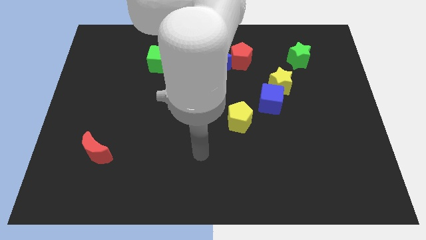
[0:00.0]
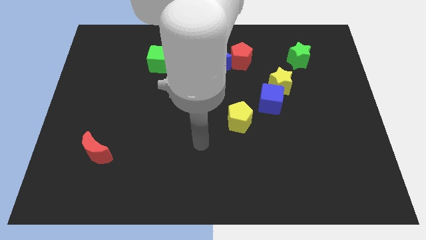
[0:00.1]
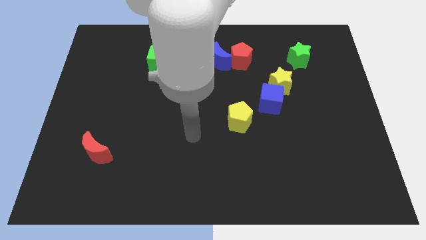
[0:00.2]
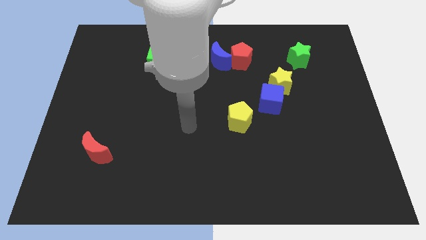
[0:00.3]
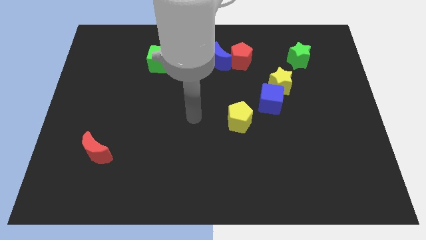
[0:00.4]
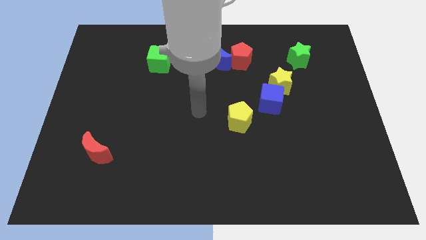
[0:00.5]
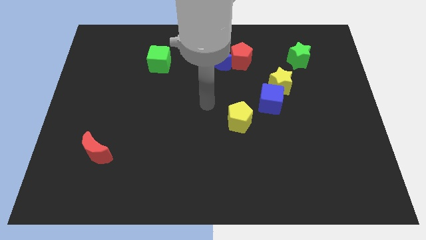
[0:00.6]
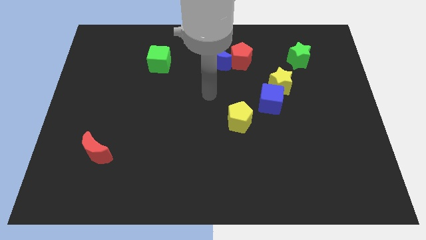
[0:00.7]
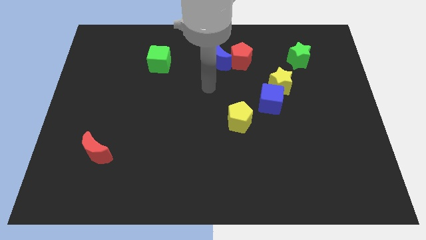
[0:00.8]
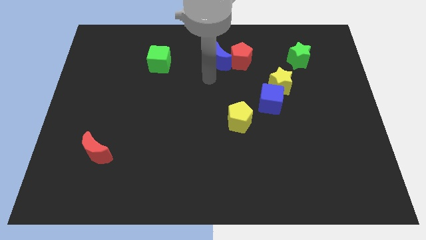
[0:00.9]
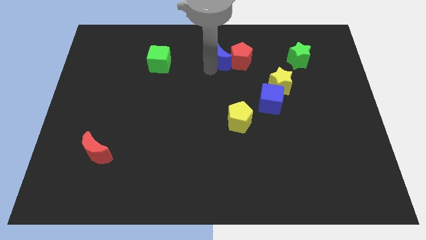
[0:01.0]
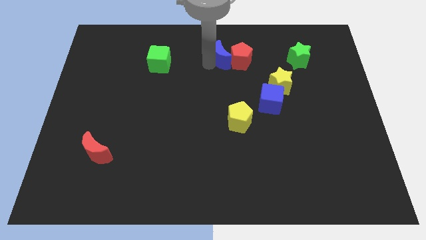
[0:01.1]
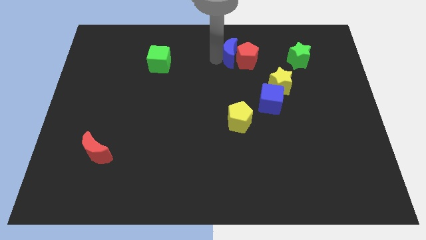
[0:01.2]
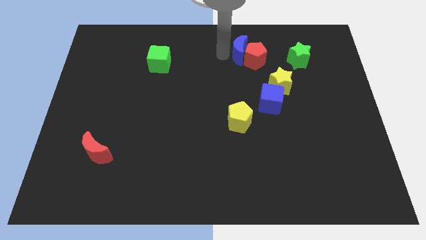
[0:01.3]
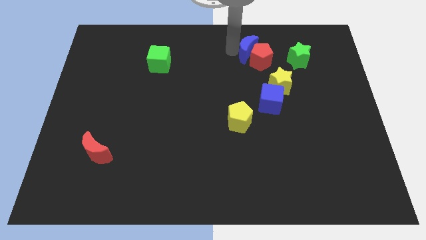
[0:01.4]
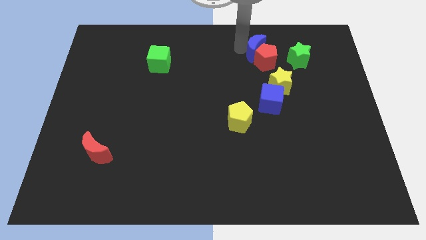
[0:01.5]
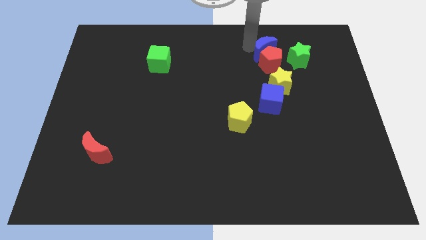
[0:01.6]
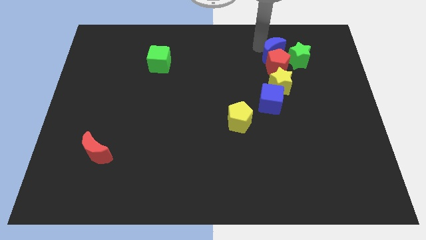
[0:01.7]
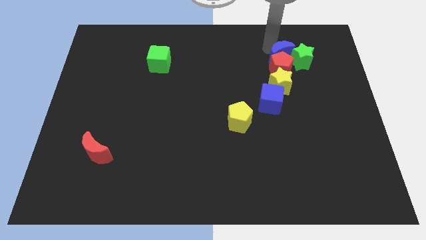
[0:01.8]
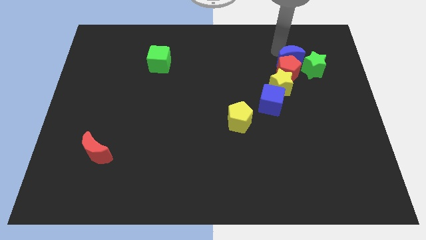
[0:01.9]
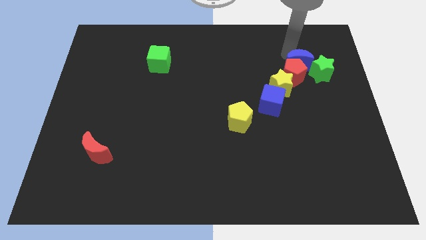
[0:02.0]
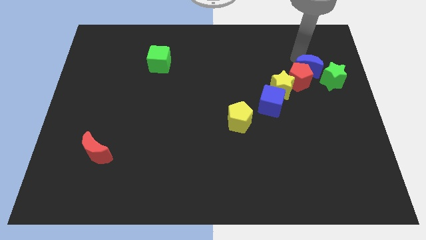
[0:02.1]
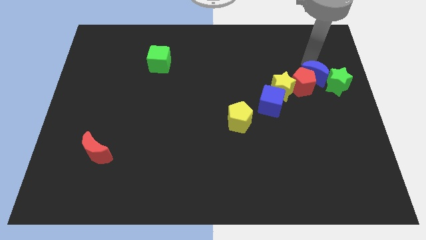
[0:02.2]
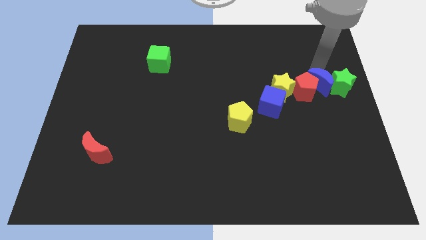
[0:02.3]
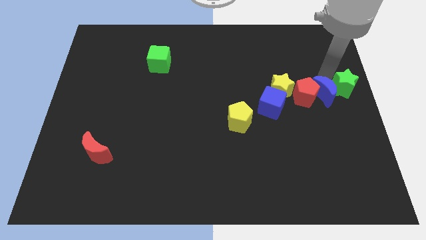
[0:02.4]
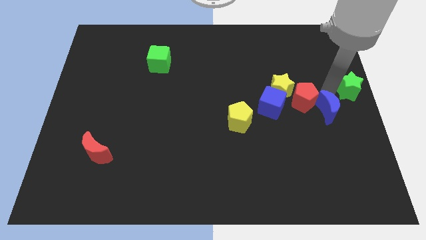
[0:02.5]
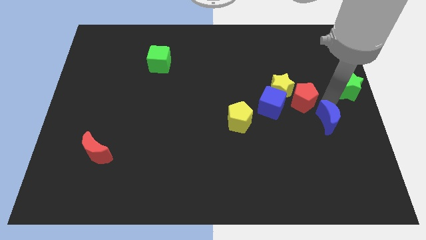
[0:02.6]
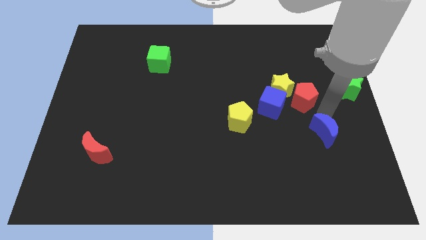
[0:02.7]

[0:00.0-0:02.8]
move the red pentagon away from the blue moon

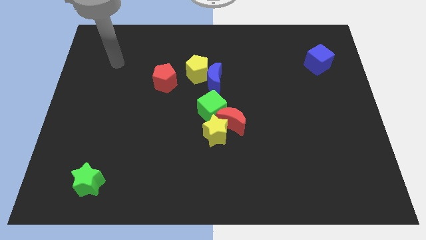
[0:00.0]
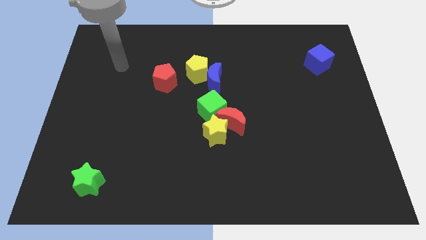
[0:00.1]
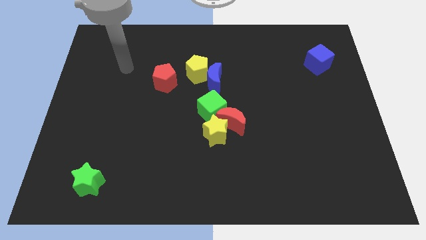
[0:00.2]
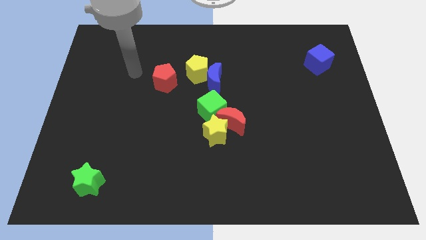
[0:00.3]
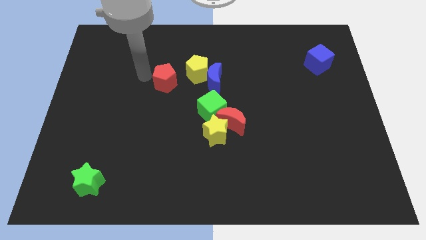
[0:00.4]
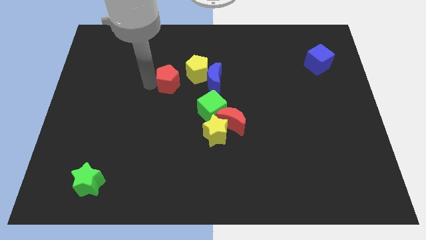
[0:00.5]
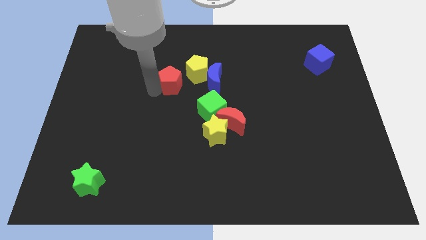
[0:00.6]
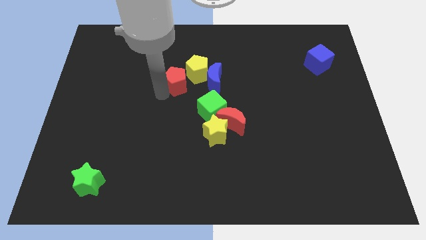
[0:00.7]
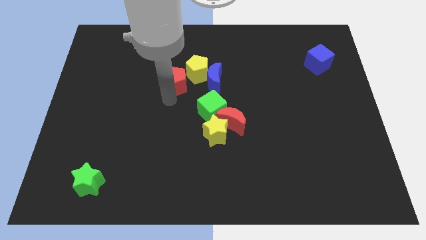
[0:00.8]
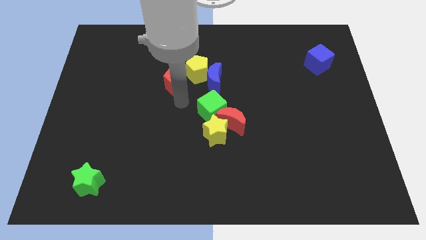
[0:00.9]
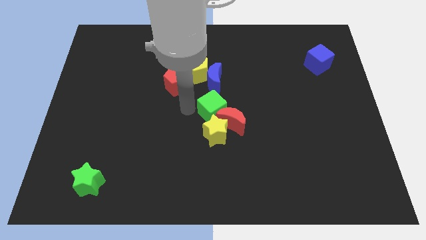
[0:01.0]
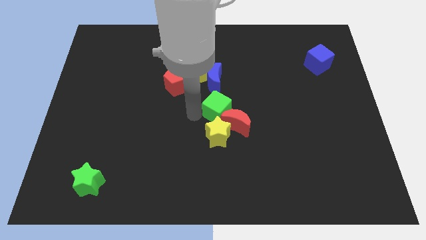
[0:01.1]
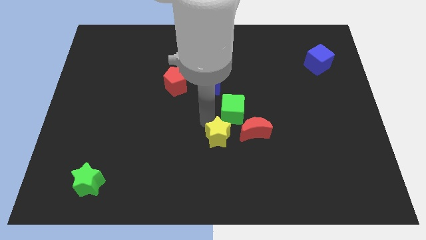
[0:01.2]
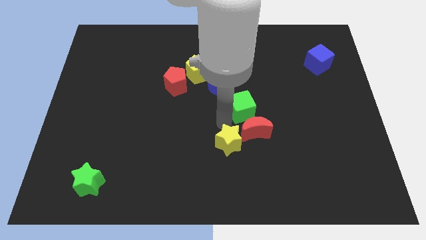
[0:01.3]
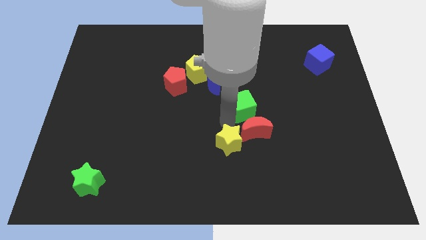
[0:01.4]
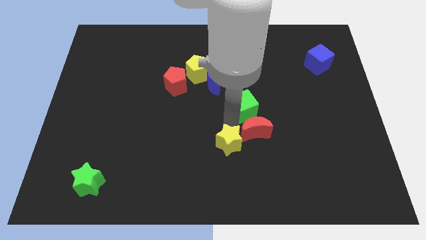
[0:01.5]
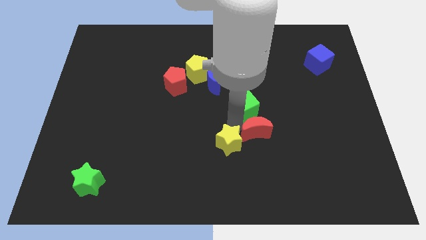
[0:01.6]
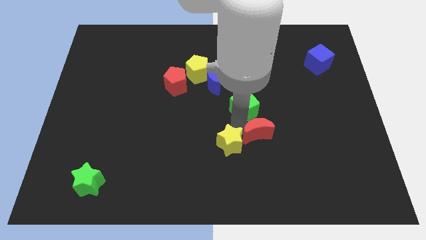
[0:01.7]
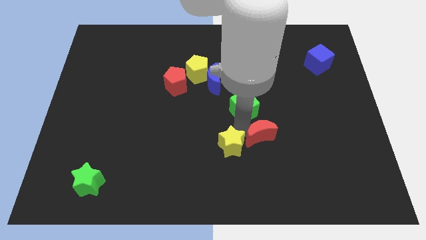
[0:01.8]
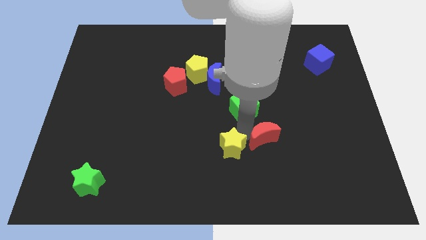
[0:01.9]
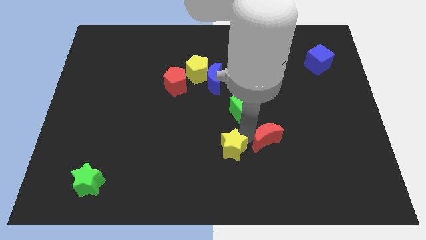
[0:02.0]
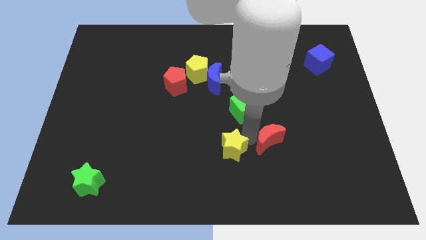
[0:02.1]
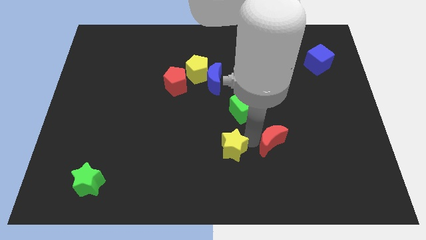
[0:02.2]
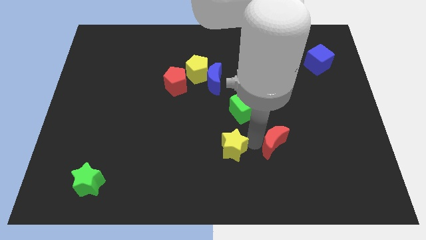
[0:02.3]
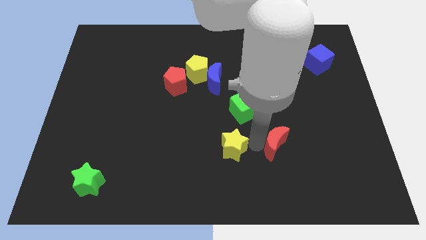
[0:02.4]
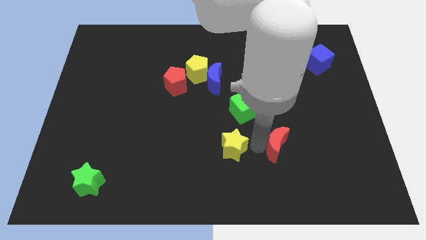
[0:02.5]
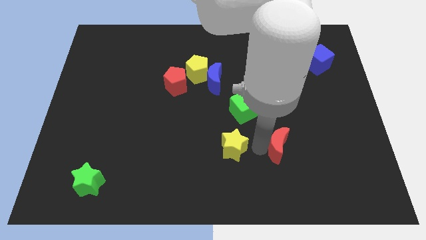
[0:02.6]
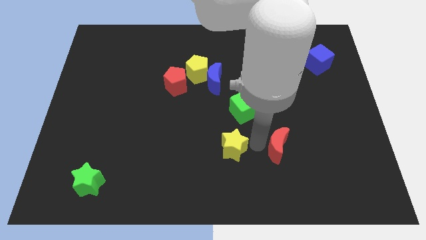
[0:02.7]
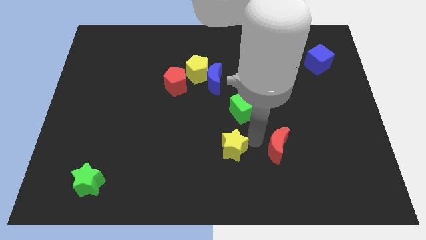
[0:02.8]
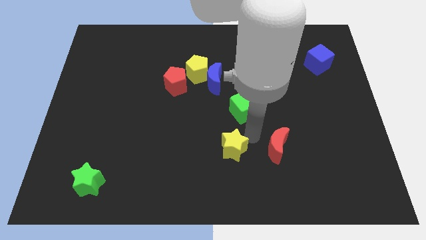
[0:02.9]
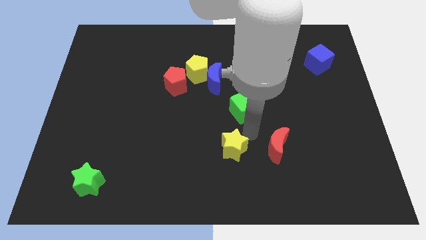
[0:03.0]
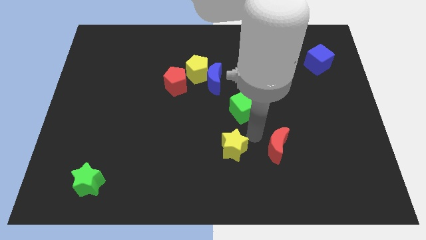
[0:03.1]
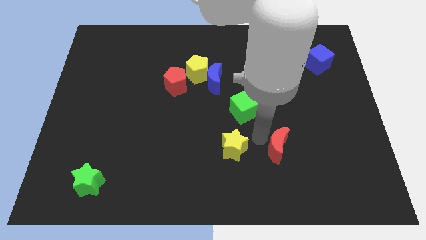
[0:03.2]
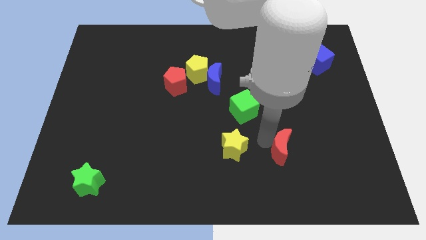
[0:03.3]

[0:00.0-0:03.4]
pull the red moon apart from the yellow star and green cube

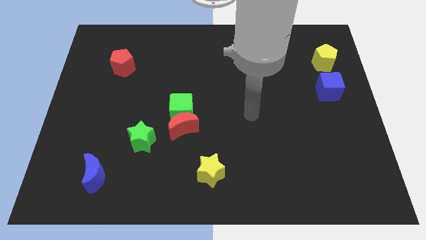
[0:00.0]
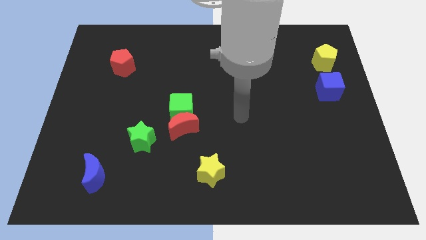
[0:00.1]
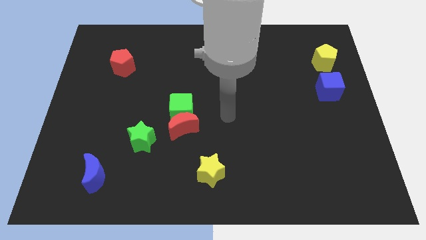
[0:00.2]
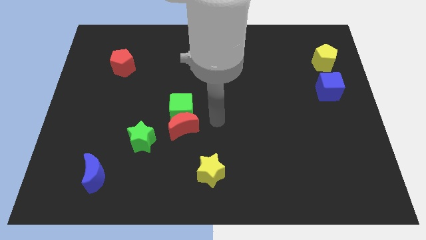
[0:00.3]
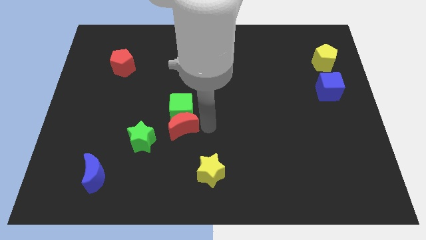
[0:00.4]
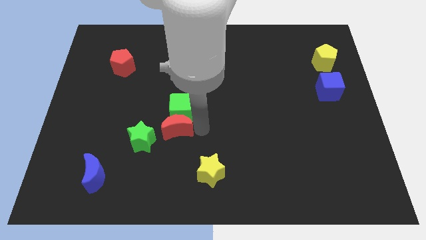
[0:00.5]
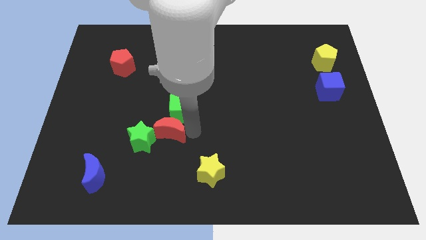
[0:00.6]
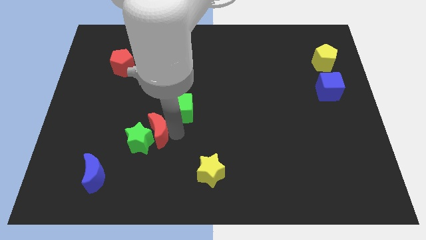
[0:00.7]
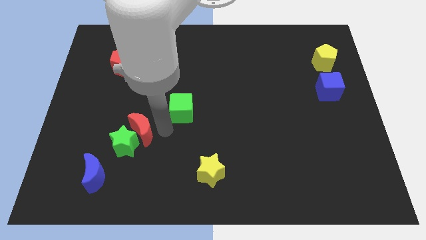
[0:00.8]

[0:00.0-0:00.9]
pull the green cube apart from the red moon

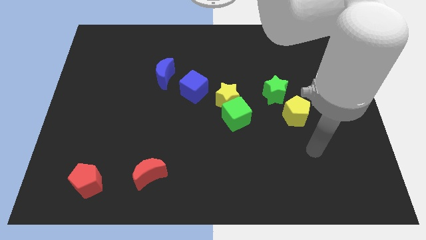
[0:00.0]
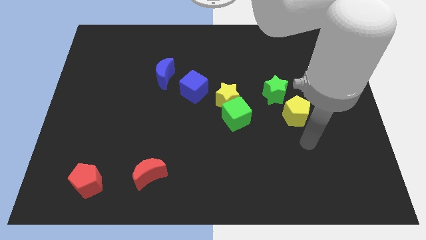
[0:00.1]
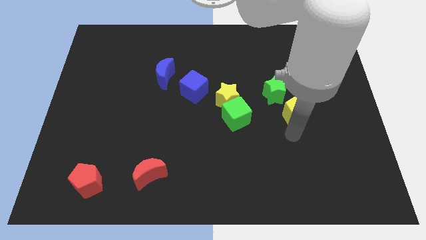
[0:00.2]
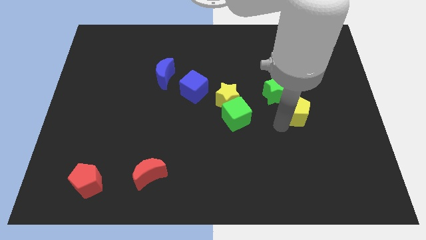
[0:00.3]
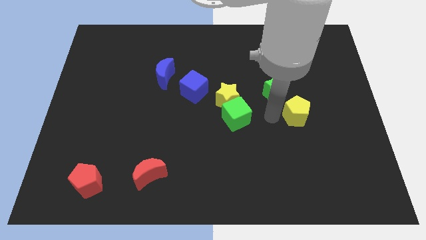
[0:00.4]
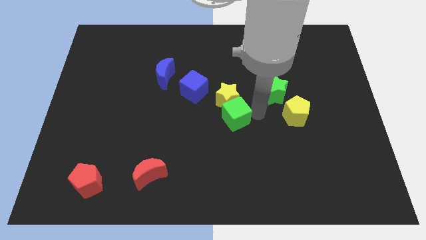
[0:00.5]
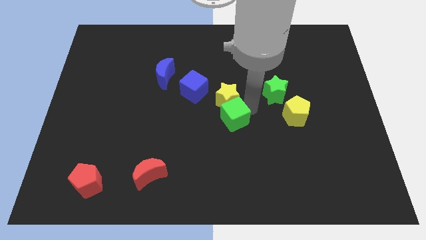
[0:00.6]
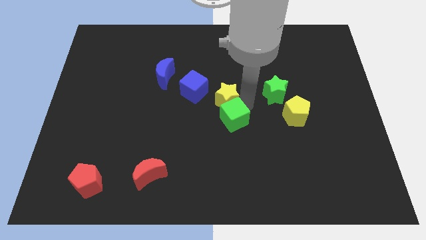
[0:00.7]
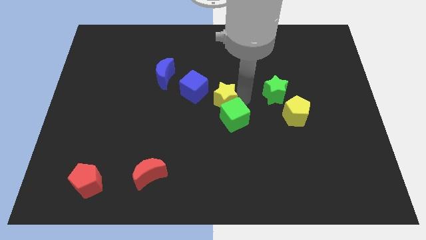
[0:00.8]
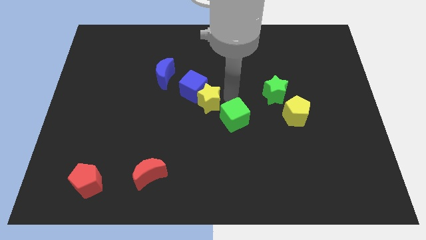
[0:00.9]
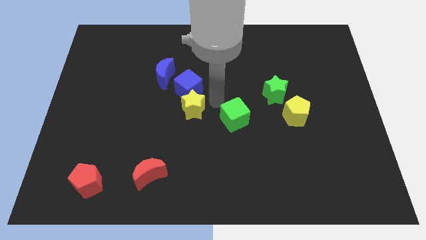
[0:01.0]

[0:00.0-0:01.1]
pull the green cube apart from the yellow star

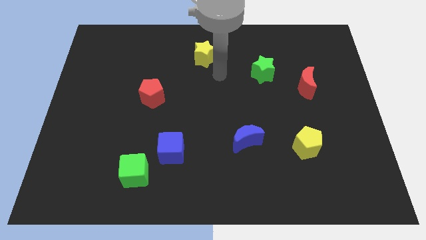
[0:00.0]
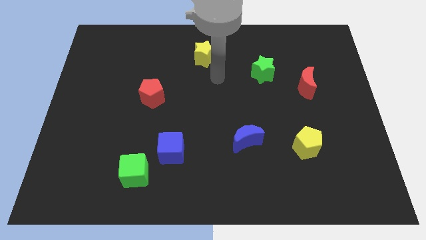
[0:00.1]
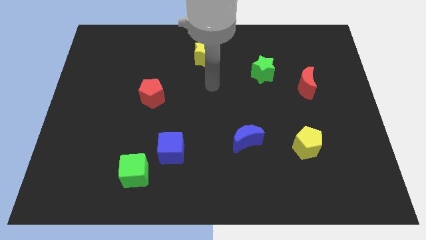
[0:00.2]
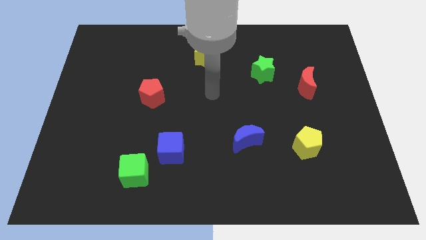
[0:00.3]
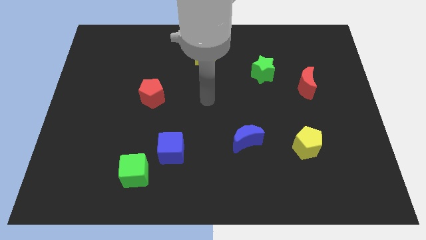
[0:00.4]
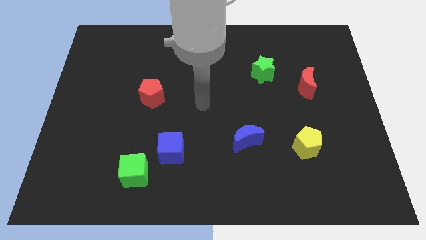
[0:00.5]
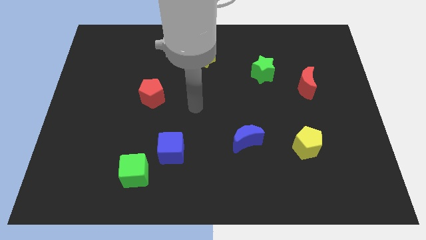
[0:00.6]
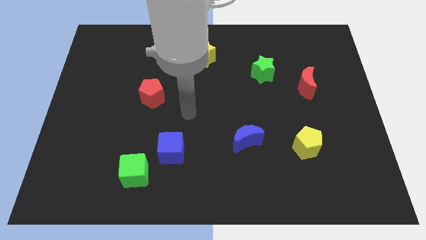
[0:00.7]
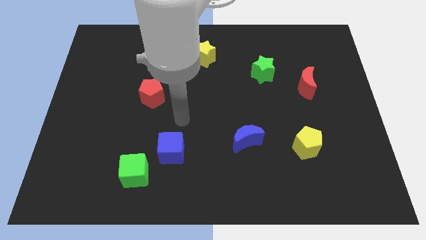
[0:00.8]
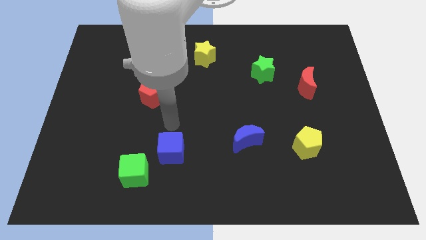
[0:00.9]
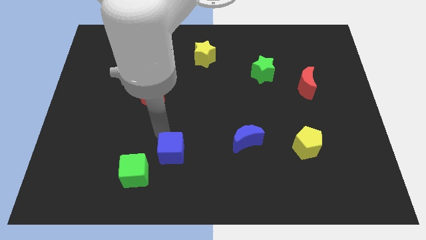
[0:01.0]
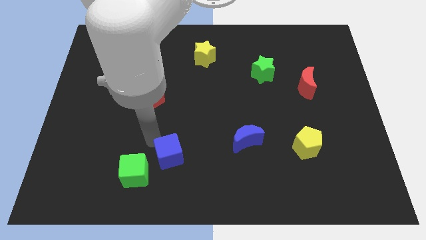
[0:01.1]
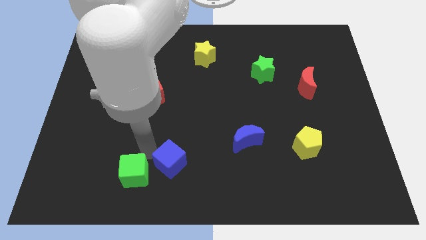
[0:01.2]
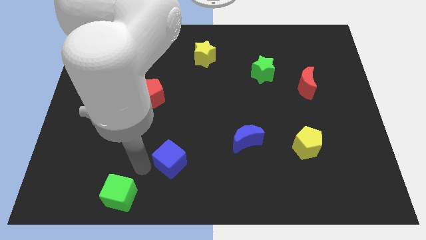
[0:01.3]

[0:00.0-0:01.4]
pull the blue cube apart from the green cube
